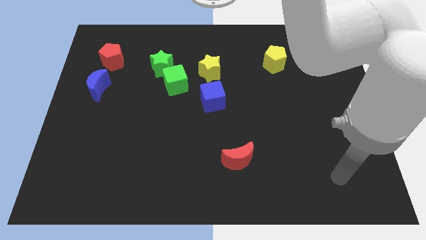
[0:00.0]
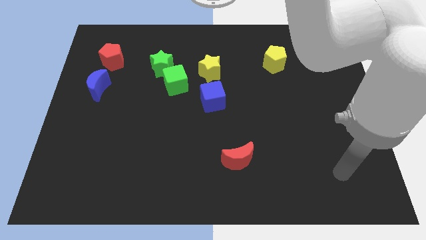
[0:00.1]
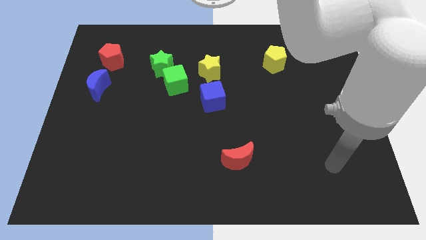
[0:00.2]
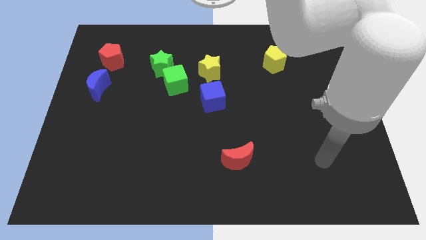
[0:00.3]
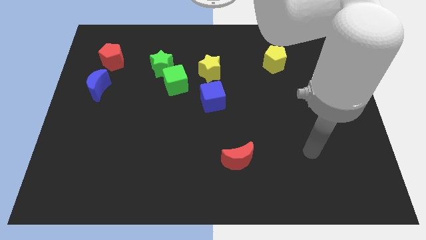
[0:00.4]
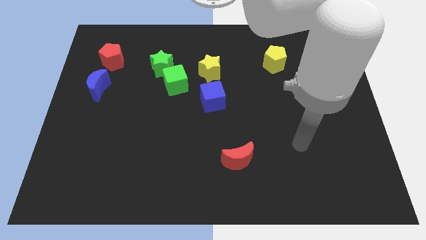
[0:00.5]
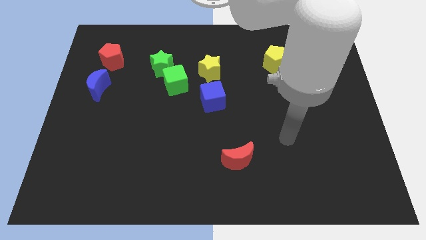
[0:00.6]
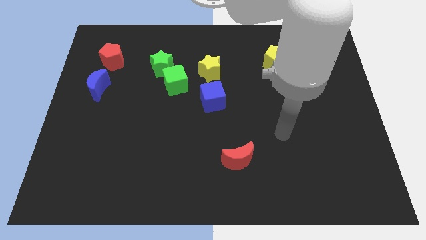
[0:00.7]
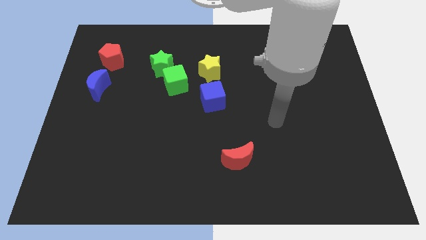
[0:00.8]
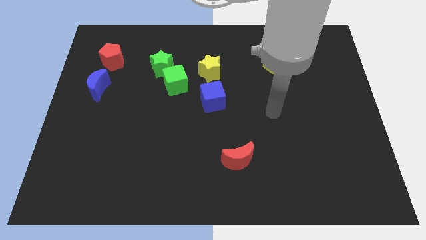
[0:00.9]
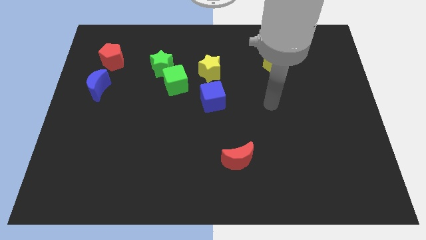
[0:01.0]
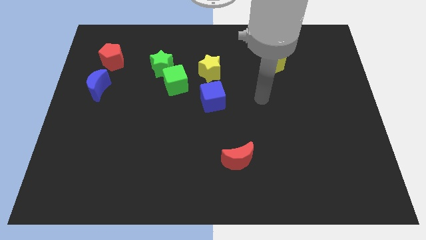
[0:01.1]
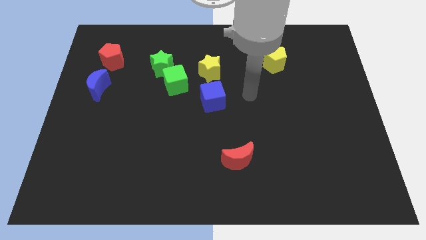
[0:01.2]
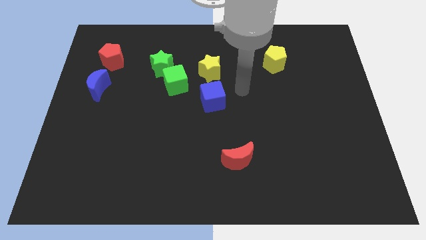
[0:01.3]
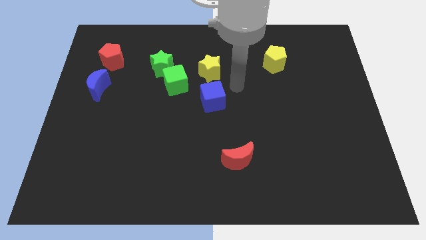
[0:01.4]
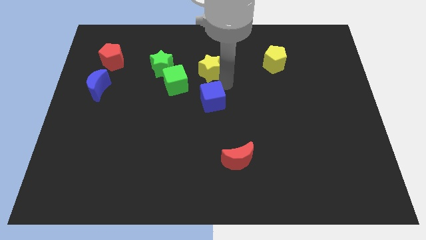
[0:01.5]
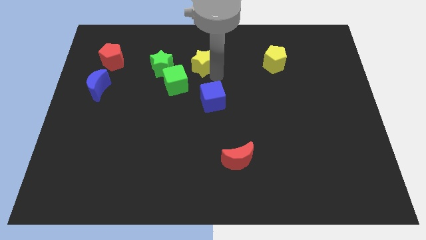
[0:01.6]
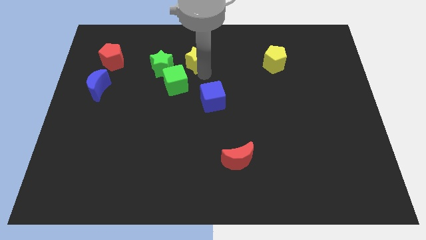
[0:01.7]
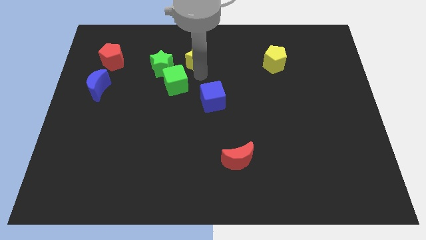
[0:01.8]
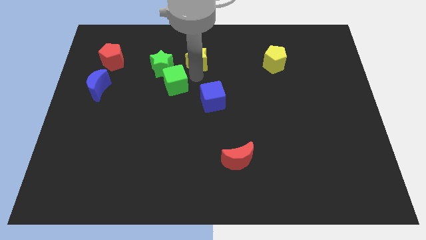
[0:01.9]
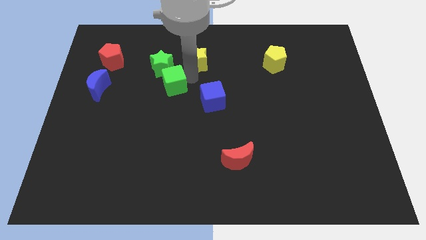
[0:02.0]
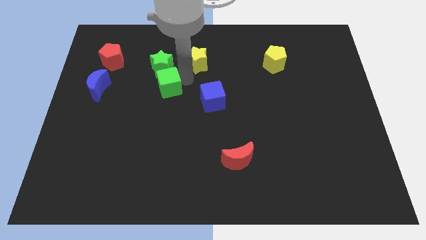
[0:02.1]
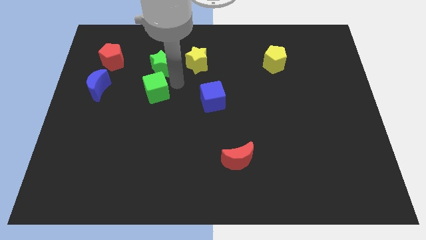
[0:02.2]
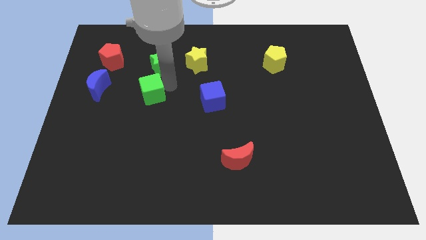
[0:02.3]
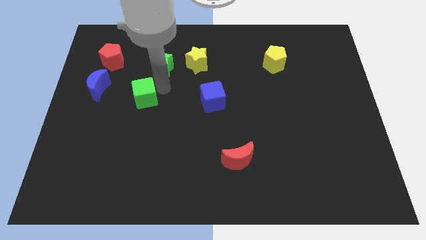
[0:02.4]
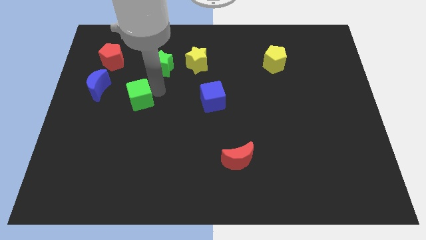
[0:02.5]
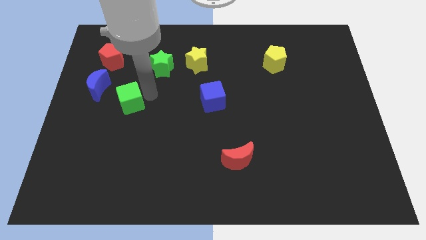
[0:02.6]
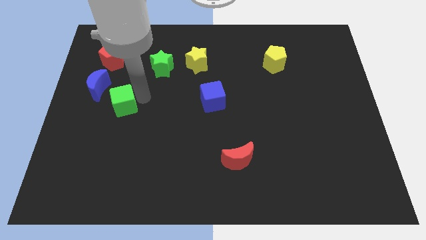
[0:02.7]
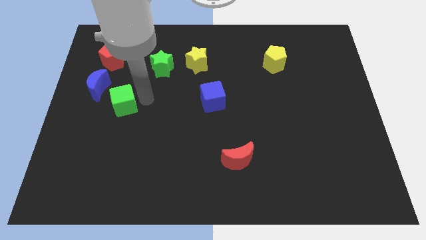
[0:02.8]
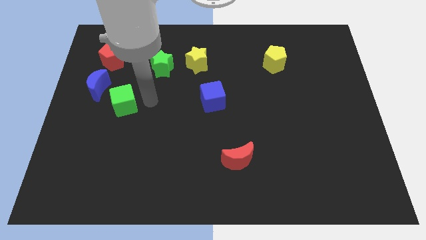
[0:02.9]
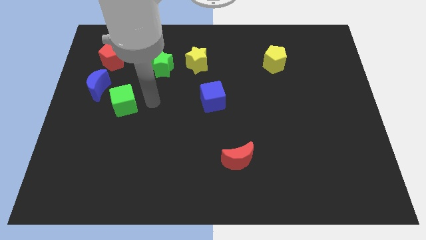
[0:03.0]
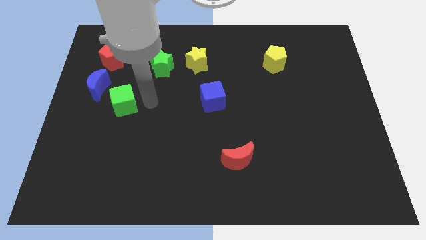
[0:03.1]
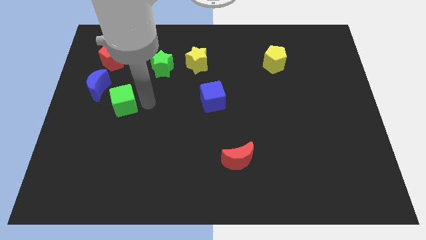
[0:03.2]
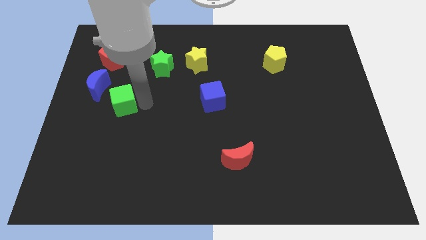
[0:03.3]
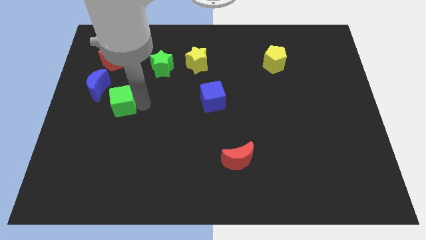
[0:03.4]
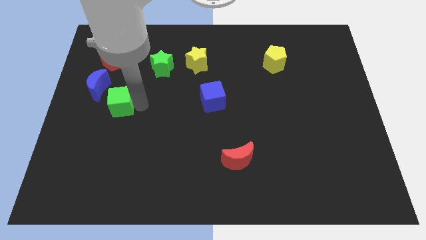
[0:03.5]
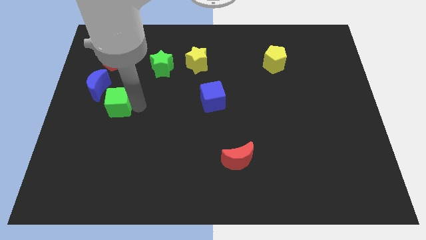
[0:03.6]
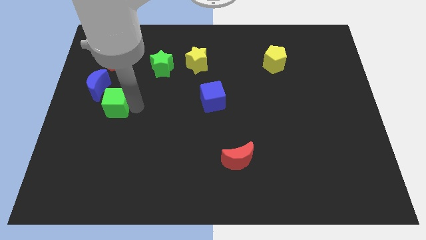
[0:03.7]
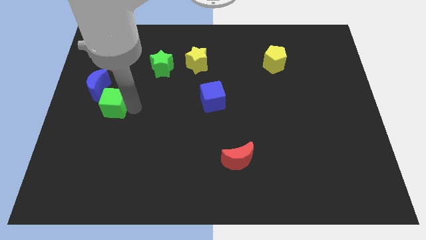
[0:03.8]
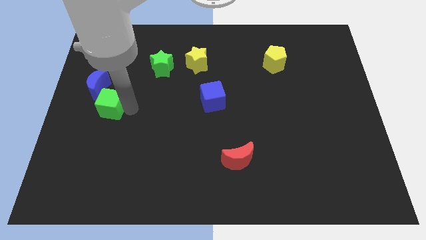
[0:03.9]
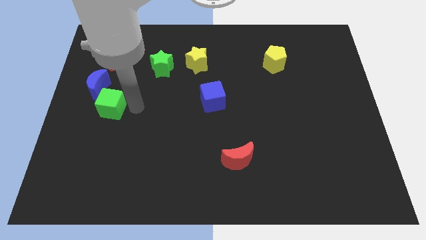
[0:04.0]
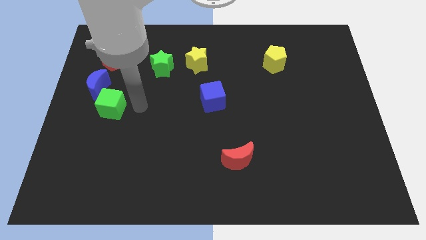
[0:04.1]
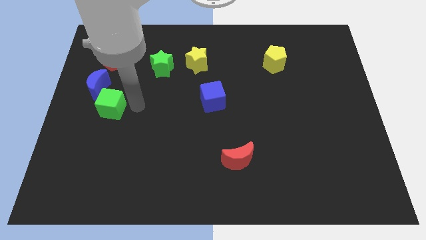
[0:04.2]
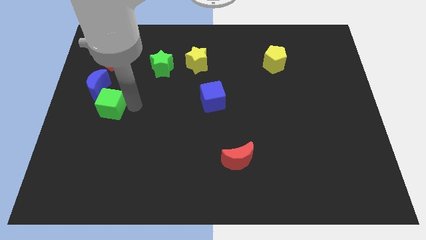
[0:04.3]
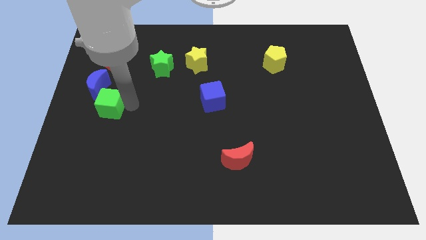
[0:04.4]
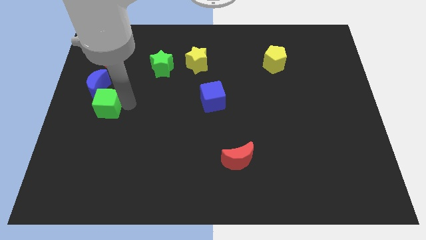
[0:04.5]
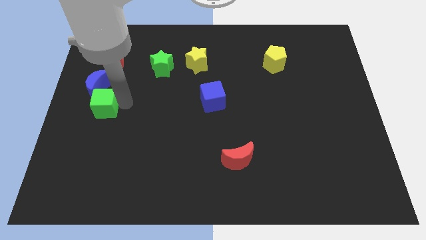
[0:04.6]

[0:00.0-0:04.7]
slide the green cube to the left side of the board

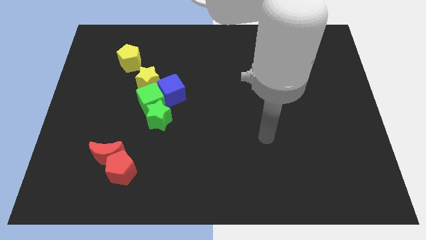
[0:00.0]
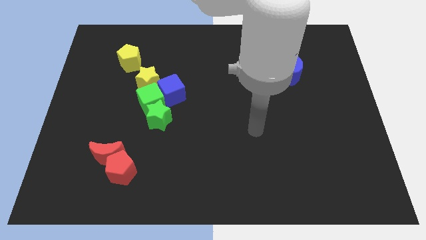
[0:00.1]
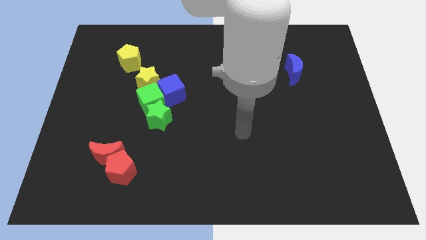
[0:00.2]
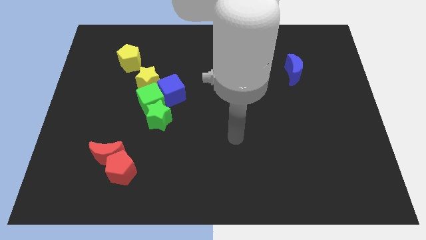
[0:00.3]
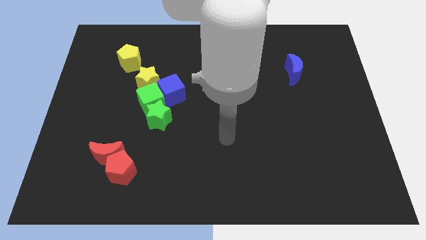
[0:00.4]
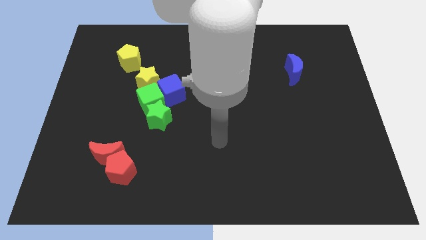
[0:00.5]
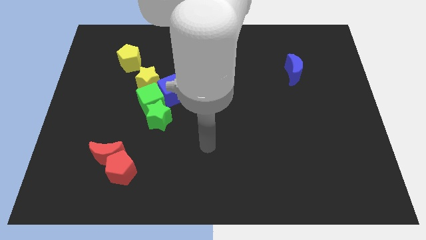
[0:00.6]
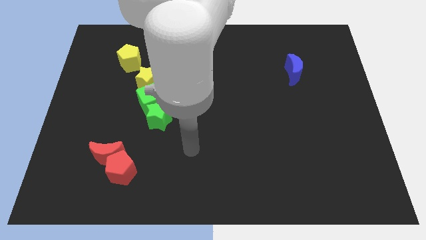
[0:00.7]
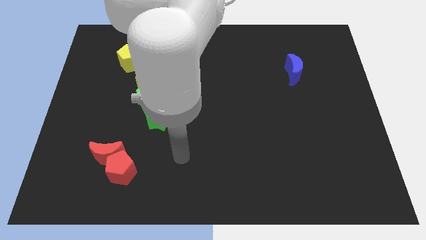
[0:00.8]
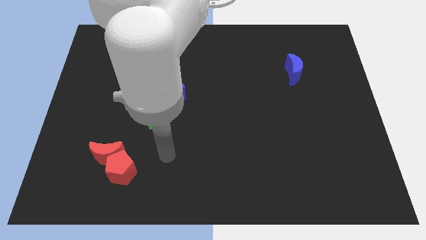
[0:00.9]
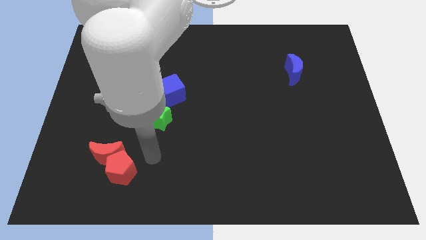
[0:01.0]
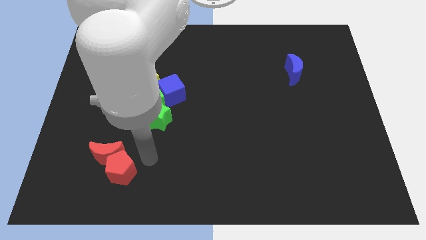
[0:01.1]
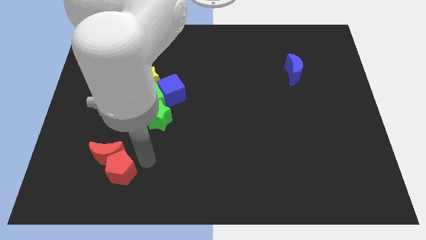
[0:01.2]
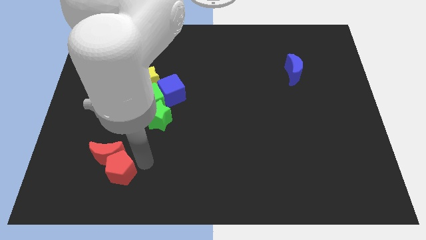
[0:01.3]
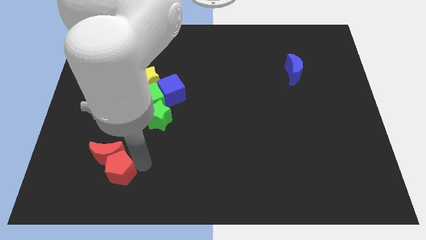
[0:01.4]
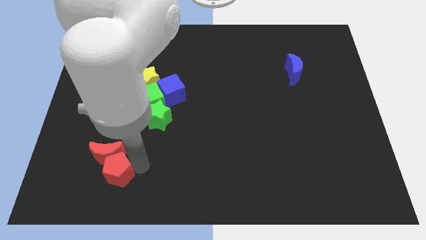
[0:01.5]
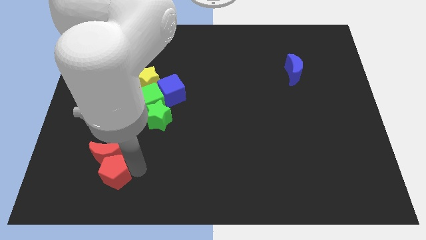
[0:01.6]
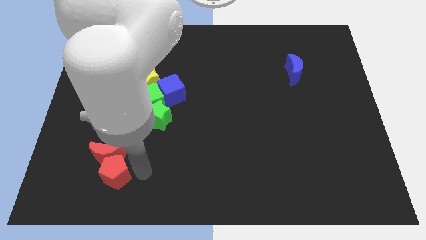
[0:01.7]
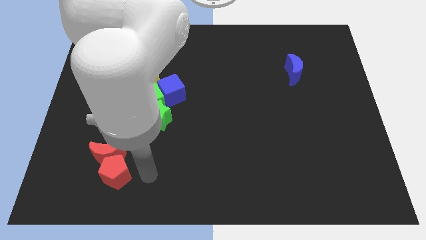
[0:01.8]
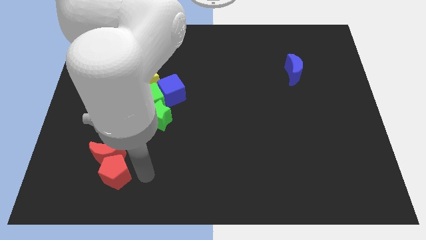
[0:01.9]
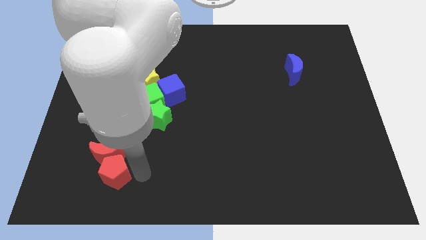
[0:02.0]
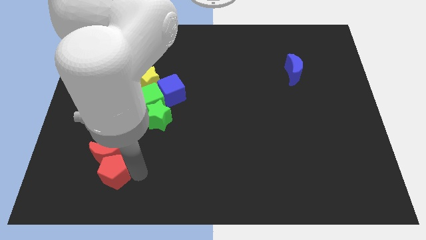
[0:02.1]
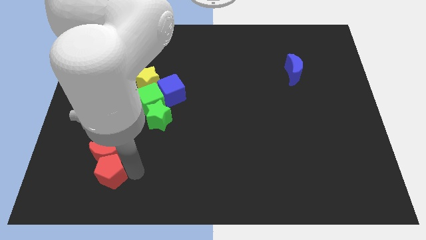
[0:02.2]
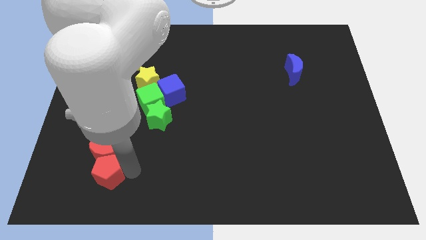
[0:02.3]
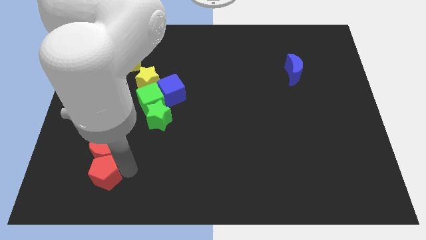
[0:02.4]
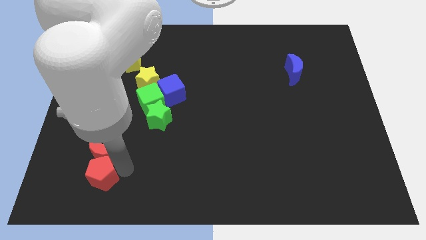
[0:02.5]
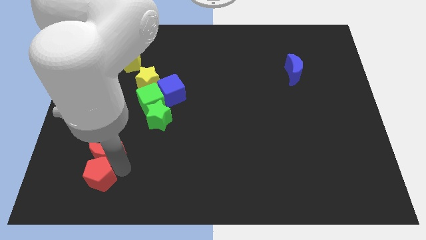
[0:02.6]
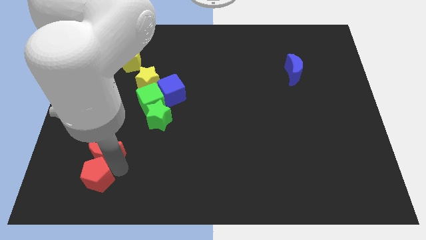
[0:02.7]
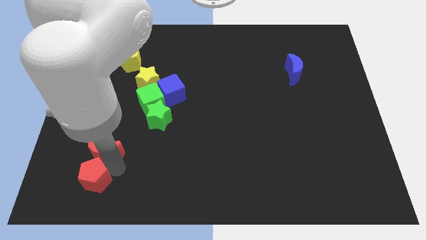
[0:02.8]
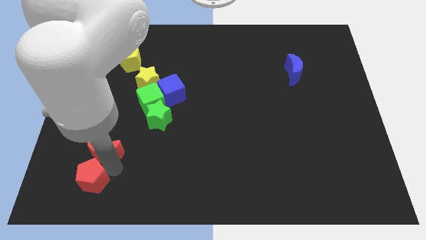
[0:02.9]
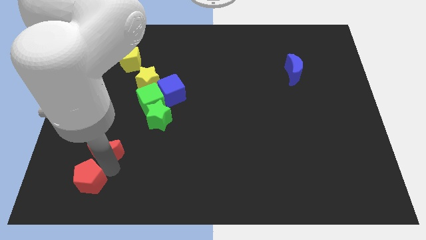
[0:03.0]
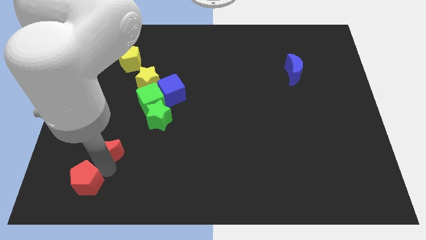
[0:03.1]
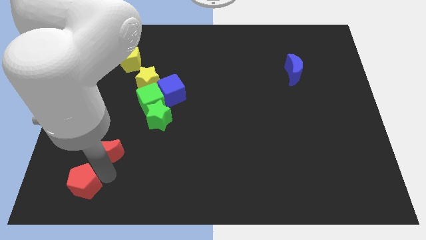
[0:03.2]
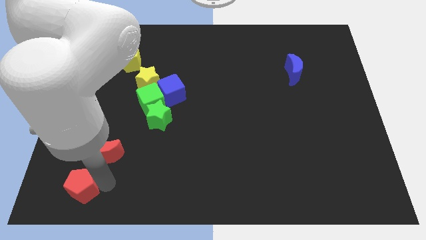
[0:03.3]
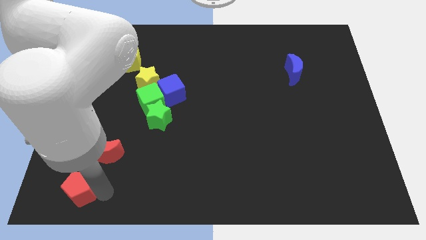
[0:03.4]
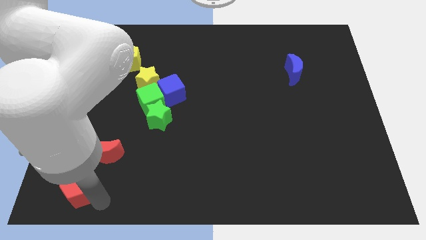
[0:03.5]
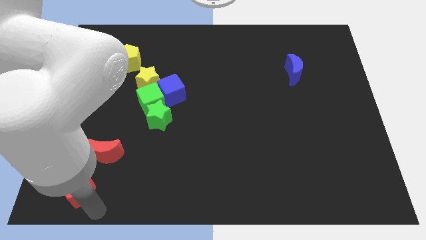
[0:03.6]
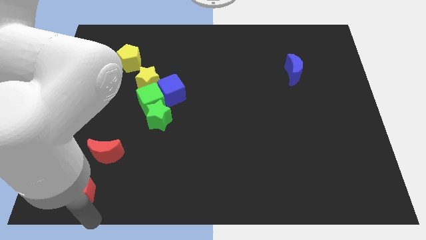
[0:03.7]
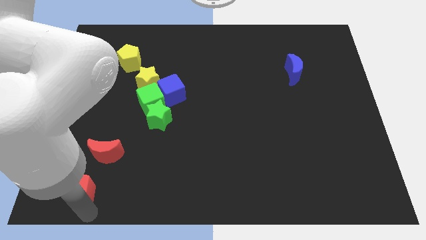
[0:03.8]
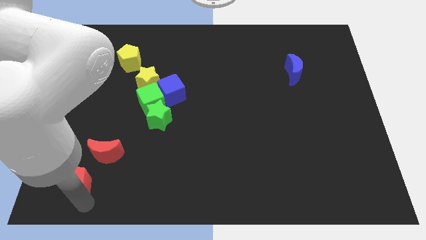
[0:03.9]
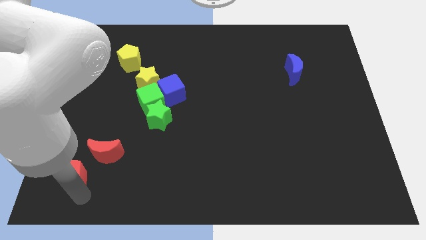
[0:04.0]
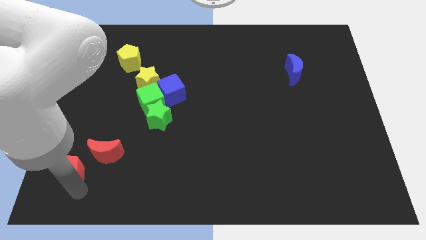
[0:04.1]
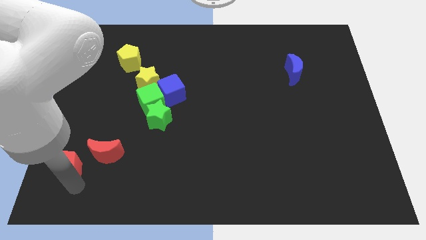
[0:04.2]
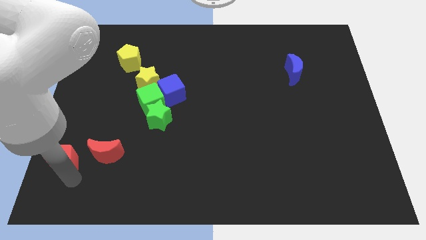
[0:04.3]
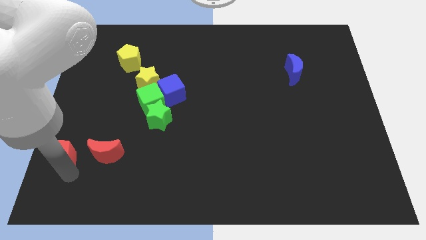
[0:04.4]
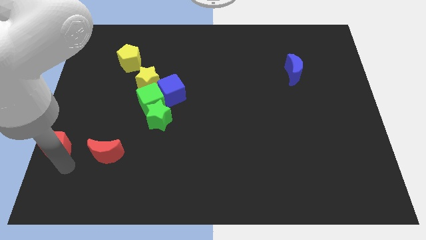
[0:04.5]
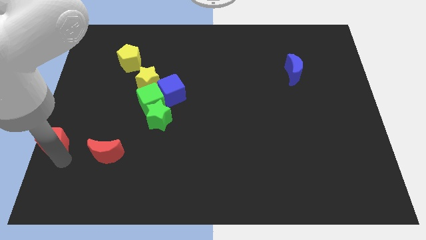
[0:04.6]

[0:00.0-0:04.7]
slide the red pentagon to the left side
